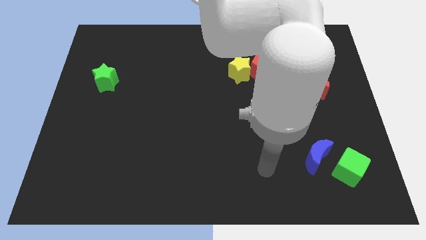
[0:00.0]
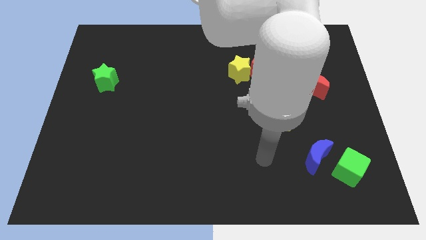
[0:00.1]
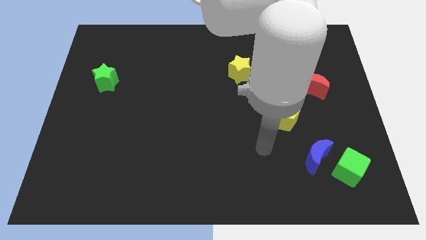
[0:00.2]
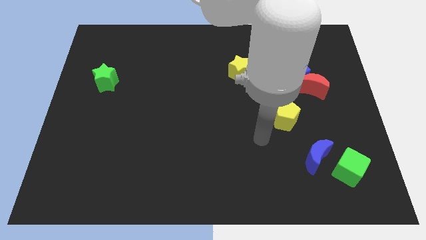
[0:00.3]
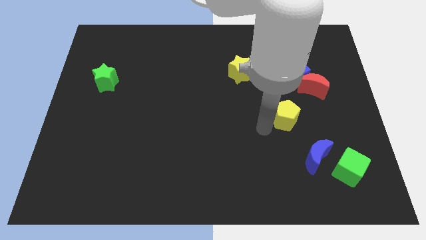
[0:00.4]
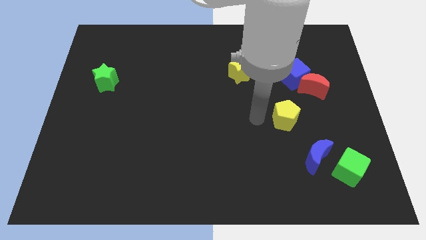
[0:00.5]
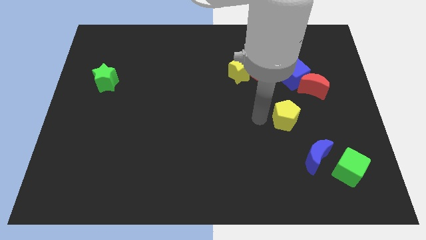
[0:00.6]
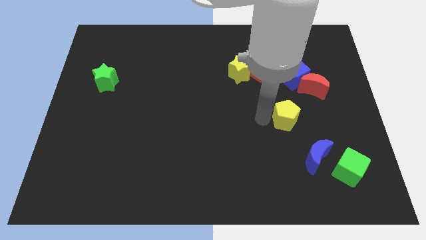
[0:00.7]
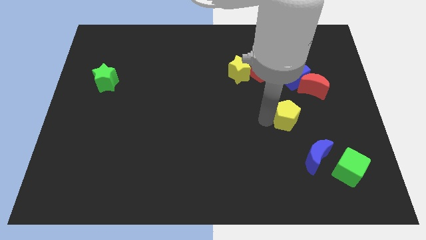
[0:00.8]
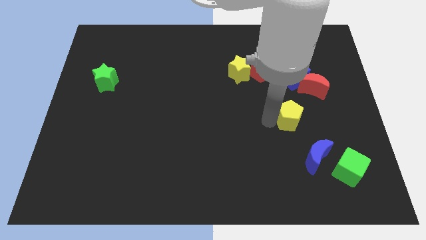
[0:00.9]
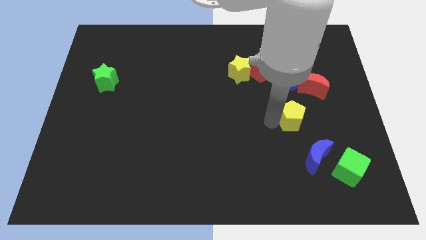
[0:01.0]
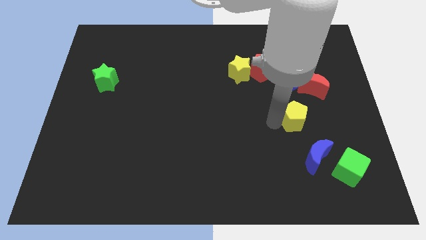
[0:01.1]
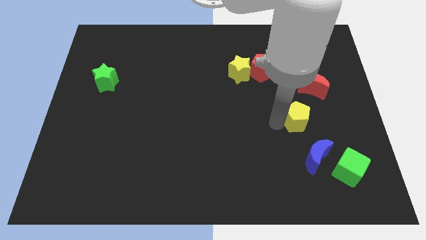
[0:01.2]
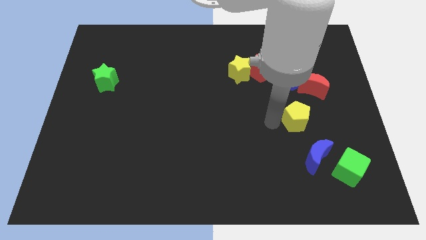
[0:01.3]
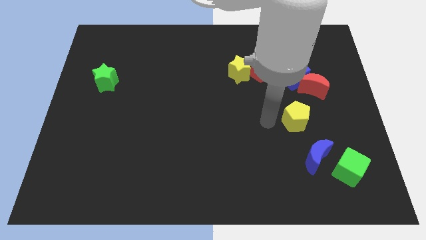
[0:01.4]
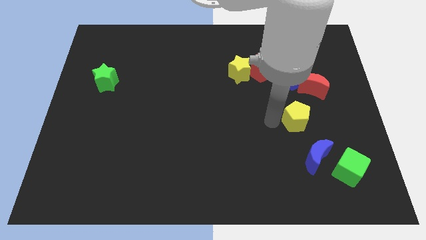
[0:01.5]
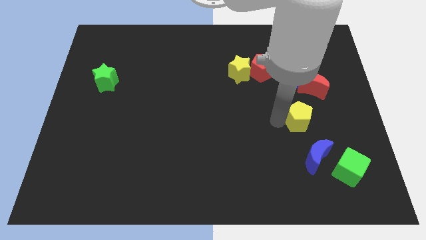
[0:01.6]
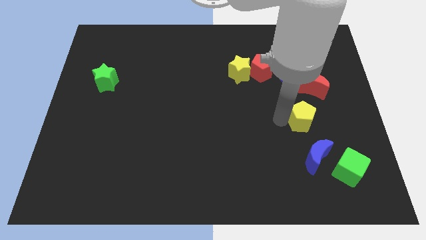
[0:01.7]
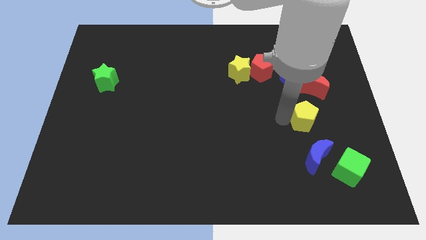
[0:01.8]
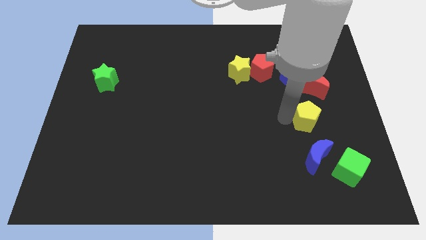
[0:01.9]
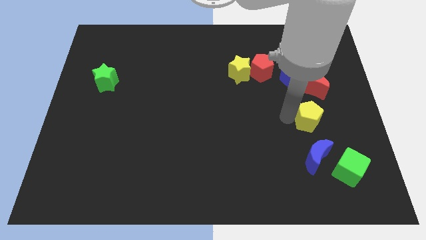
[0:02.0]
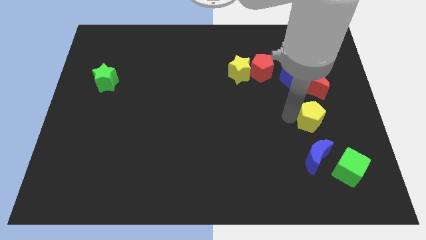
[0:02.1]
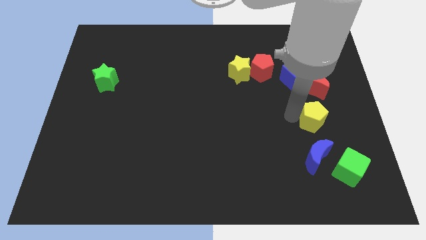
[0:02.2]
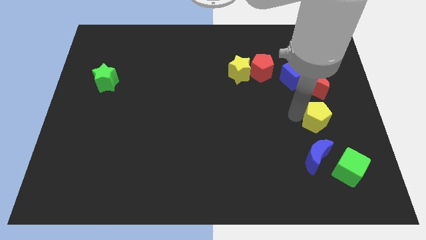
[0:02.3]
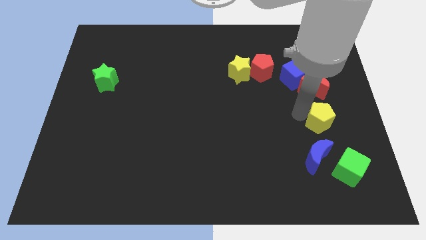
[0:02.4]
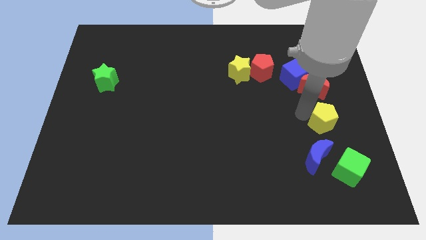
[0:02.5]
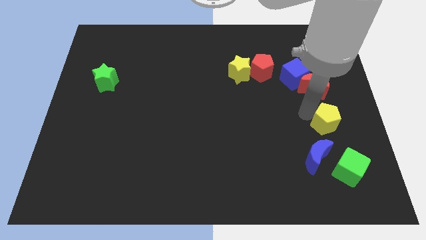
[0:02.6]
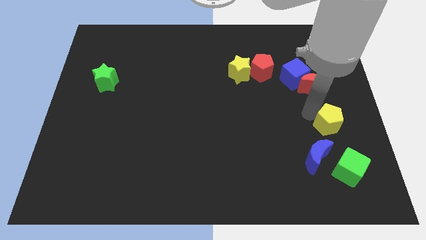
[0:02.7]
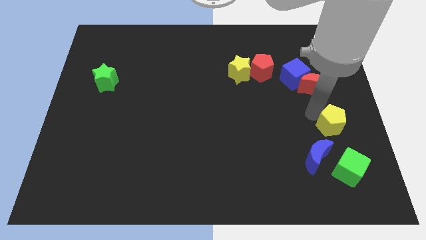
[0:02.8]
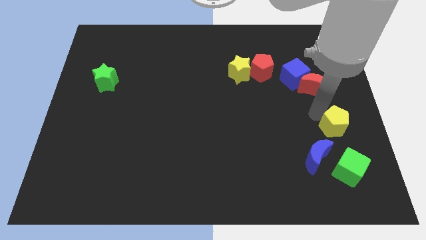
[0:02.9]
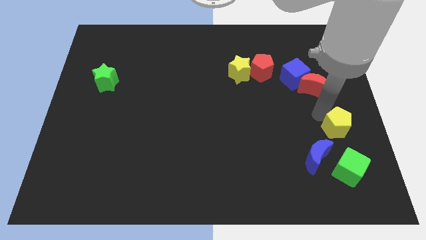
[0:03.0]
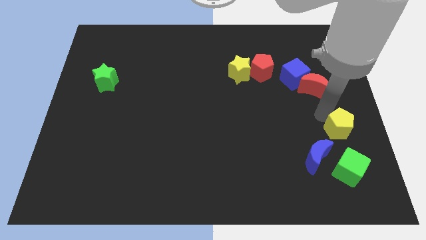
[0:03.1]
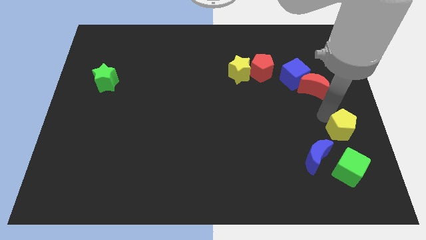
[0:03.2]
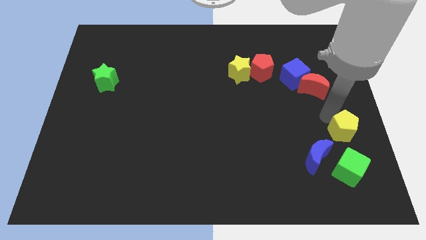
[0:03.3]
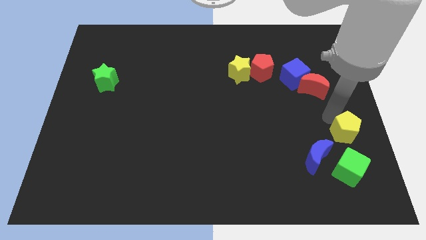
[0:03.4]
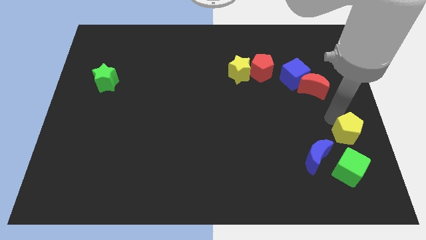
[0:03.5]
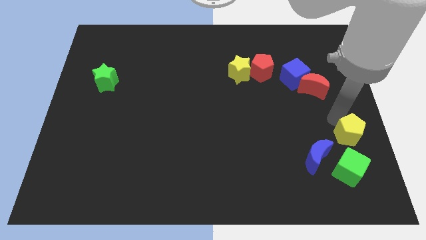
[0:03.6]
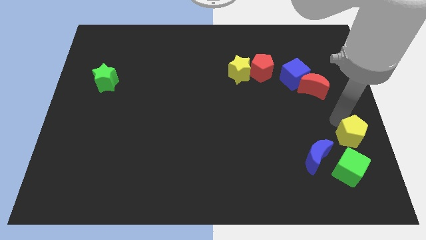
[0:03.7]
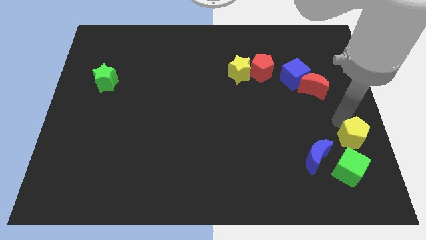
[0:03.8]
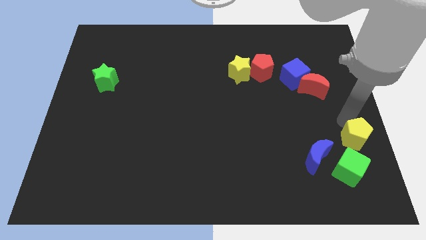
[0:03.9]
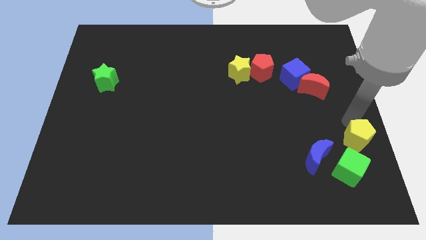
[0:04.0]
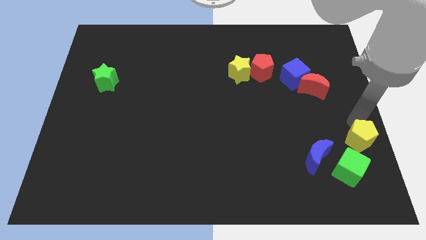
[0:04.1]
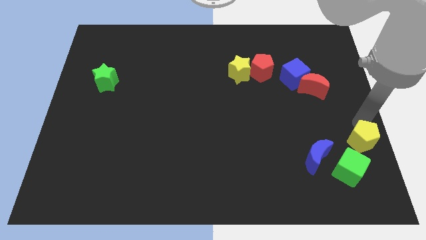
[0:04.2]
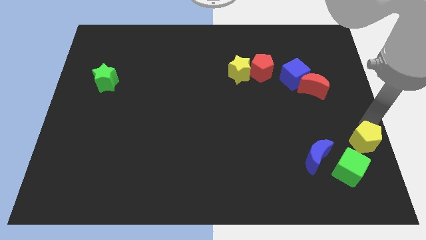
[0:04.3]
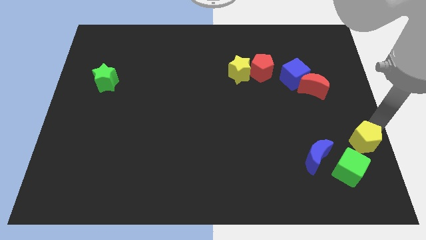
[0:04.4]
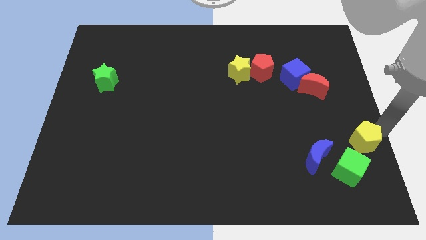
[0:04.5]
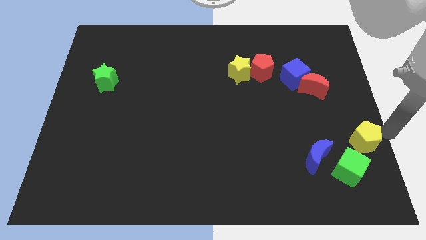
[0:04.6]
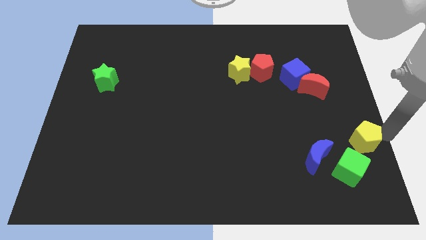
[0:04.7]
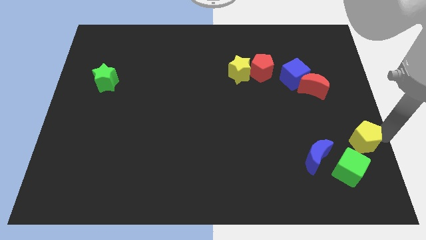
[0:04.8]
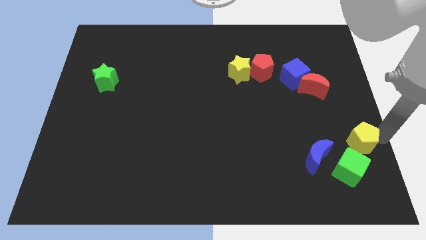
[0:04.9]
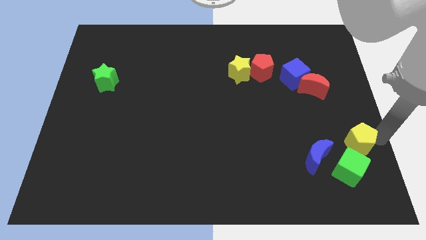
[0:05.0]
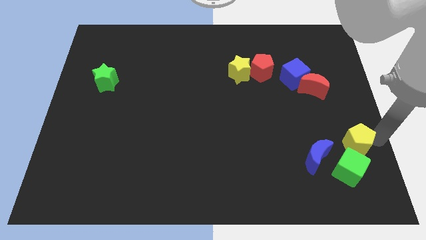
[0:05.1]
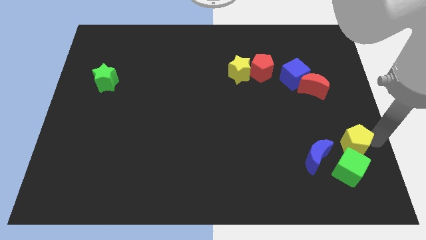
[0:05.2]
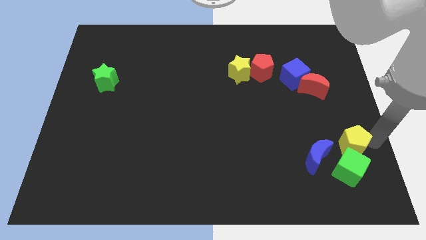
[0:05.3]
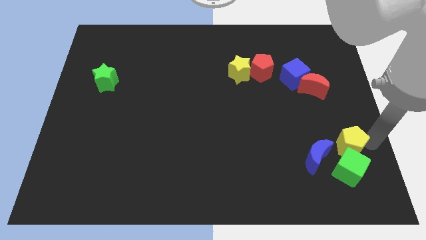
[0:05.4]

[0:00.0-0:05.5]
push the yellow pentagon towards the green cube

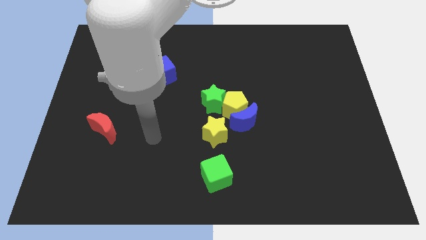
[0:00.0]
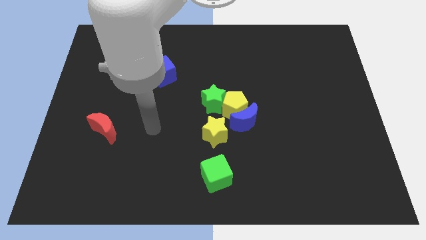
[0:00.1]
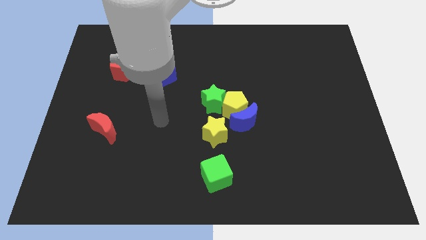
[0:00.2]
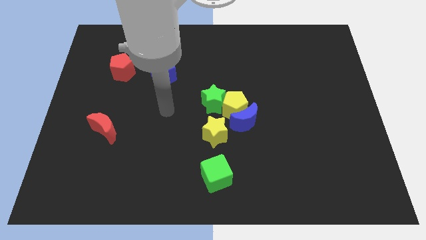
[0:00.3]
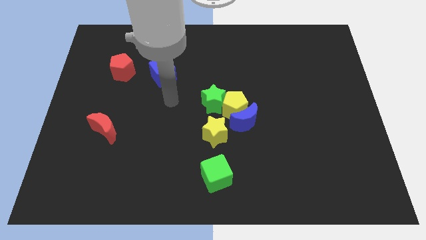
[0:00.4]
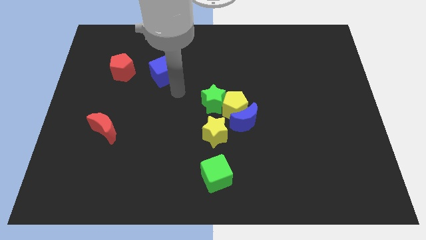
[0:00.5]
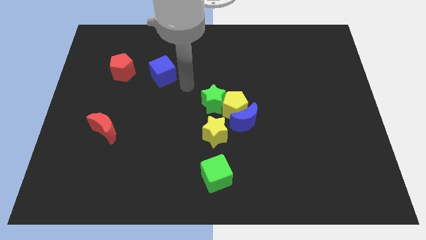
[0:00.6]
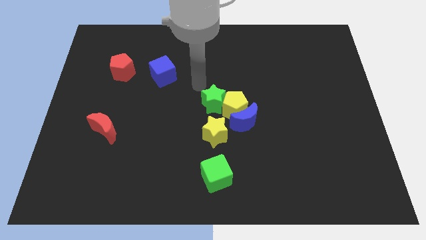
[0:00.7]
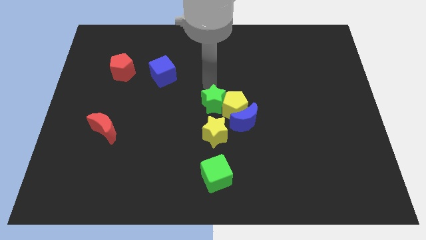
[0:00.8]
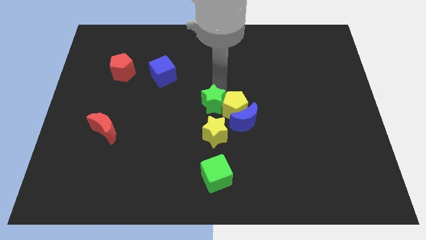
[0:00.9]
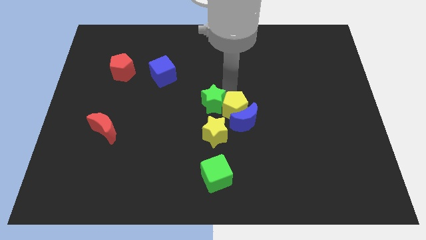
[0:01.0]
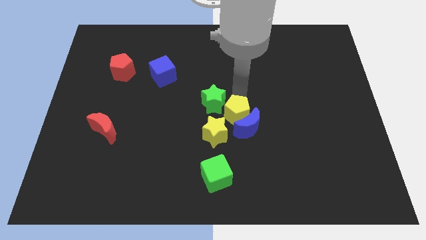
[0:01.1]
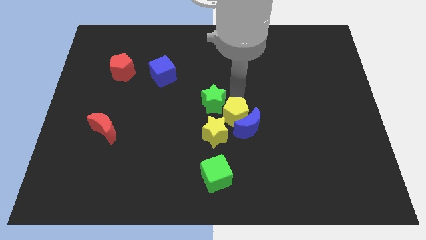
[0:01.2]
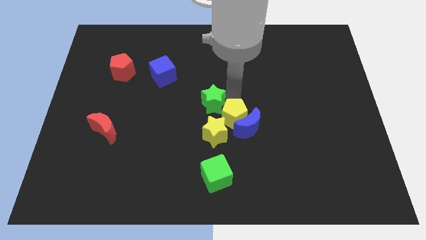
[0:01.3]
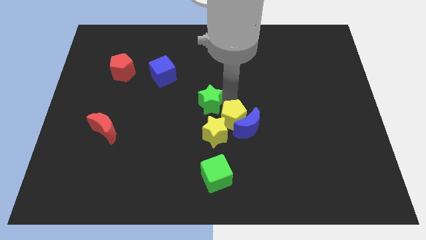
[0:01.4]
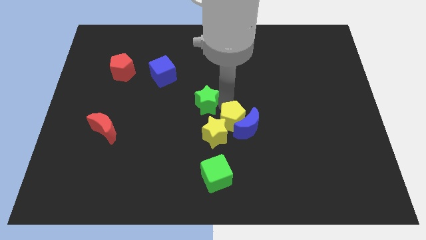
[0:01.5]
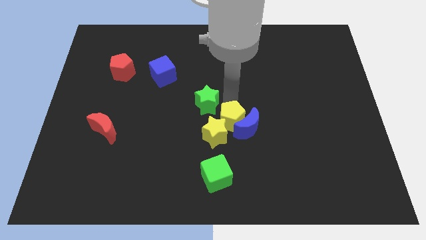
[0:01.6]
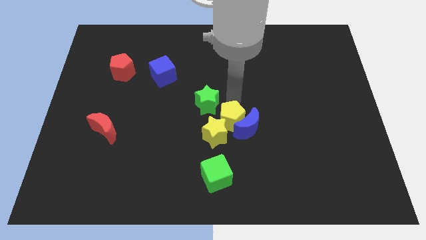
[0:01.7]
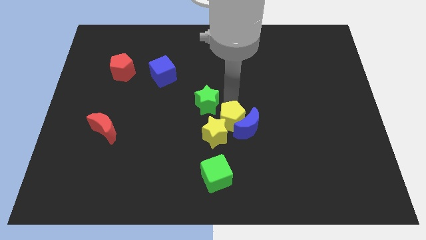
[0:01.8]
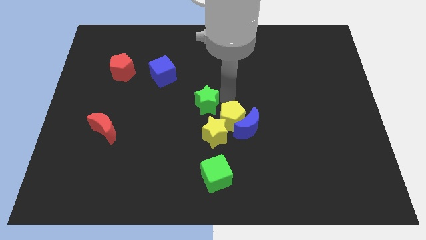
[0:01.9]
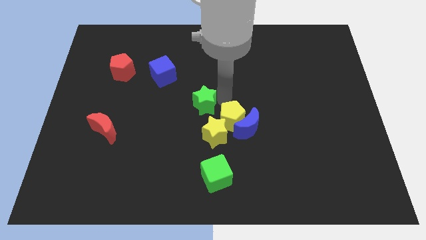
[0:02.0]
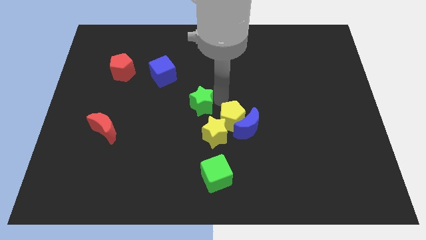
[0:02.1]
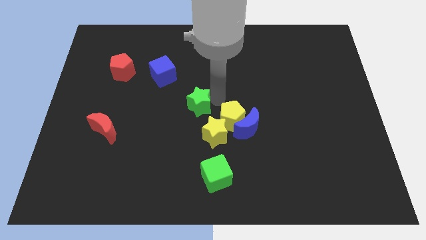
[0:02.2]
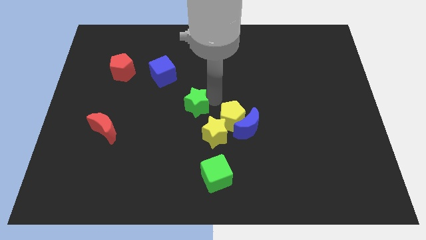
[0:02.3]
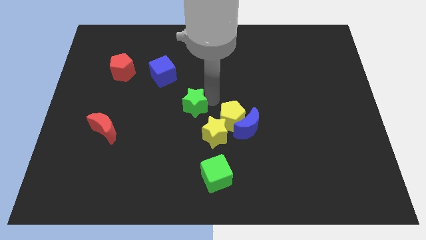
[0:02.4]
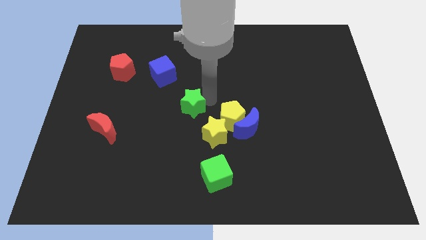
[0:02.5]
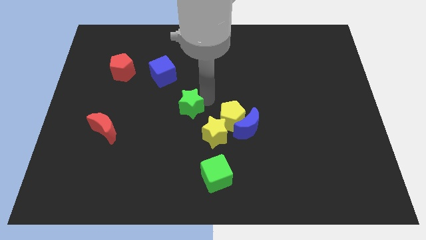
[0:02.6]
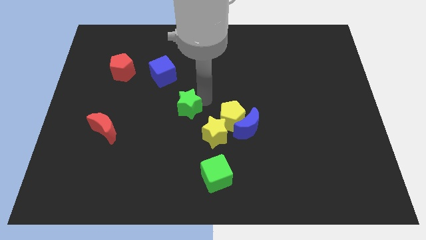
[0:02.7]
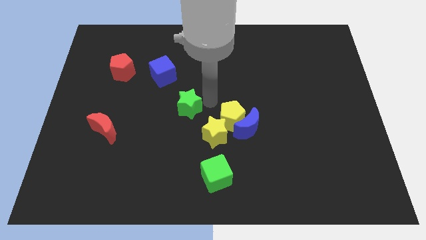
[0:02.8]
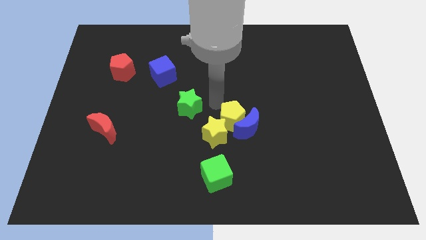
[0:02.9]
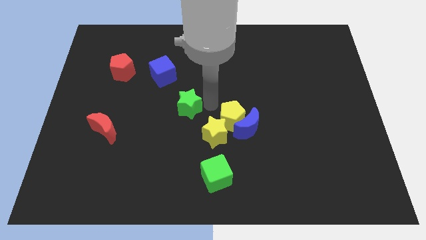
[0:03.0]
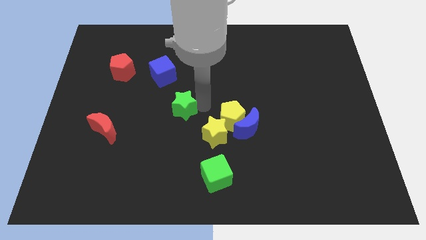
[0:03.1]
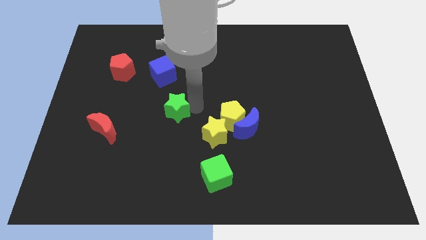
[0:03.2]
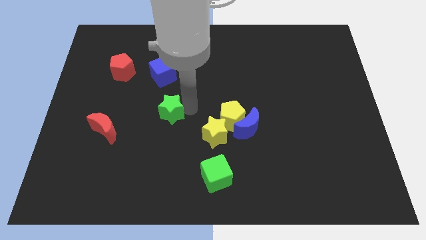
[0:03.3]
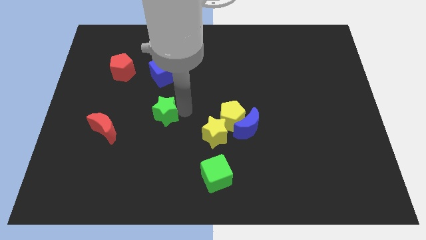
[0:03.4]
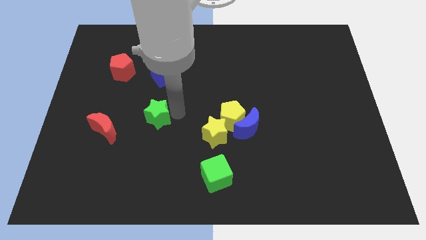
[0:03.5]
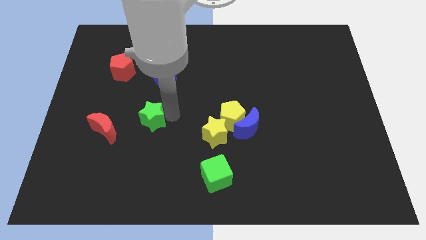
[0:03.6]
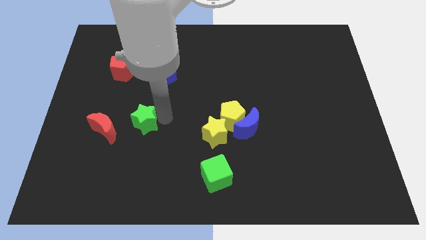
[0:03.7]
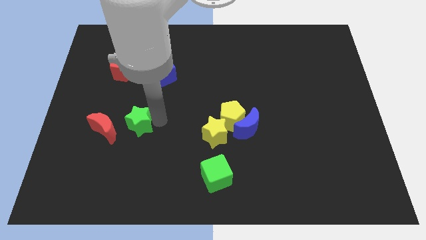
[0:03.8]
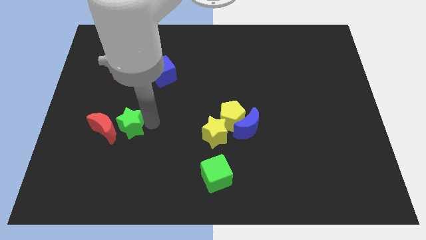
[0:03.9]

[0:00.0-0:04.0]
push the green star close to the red moon
